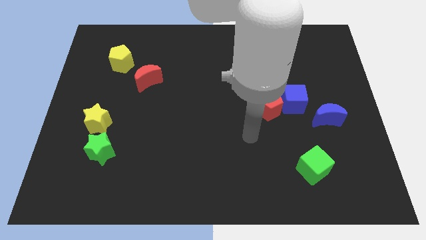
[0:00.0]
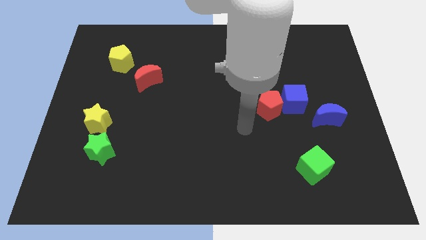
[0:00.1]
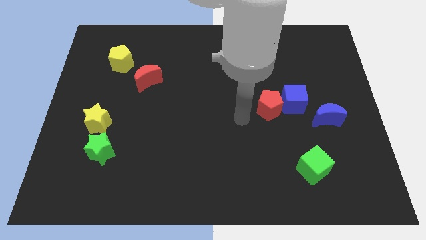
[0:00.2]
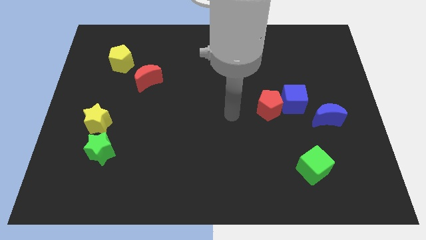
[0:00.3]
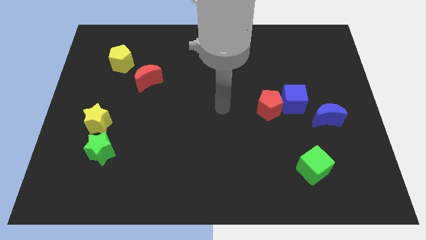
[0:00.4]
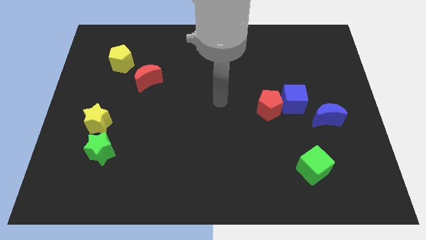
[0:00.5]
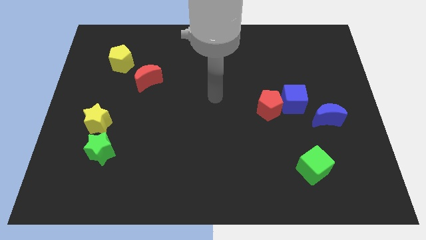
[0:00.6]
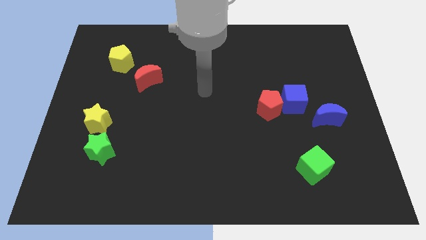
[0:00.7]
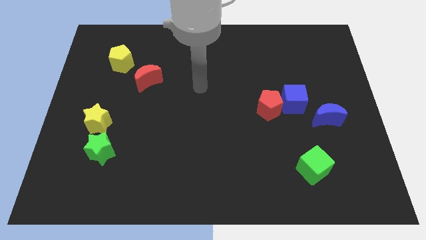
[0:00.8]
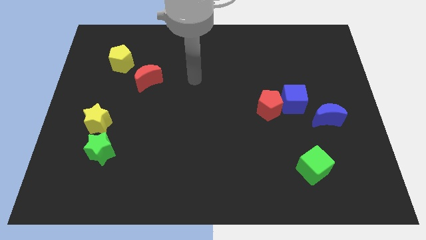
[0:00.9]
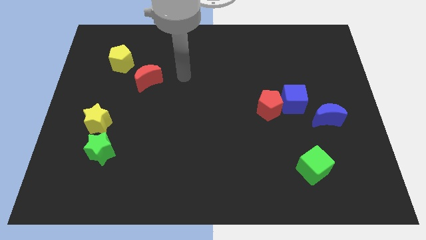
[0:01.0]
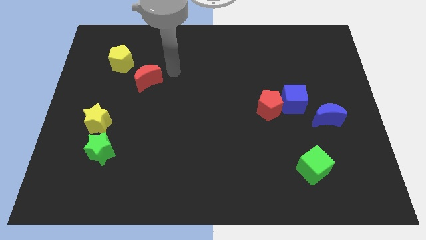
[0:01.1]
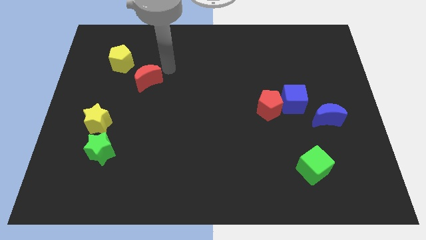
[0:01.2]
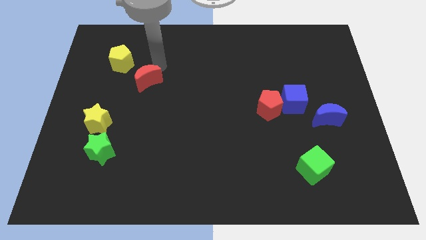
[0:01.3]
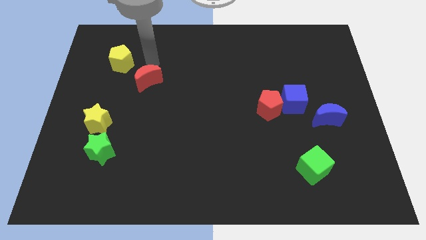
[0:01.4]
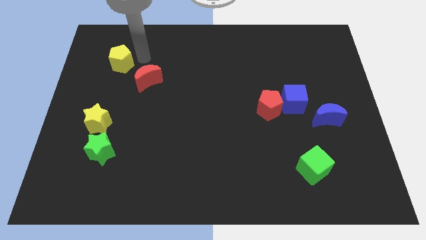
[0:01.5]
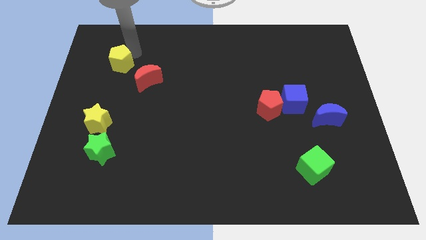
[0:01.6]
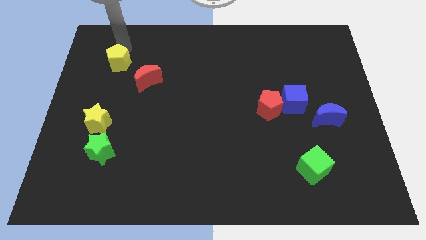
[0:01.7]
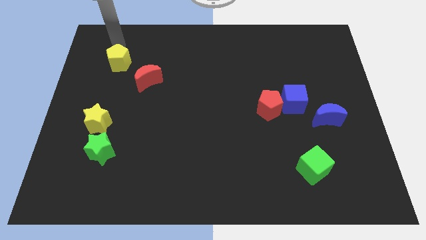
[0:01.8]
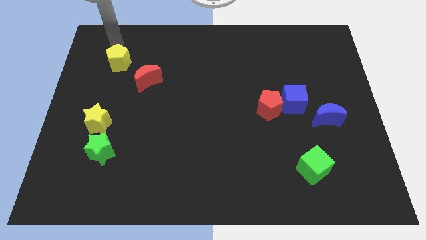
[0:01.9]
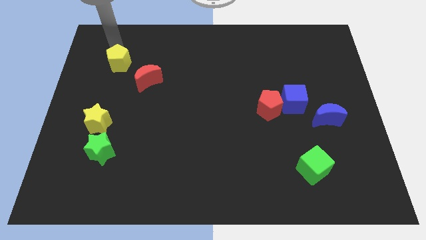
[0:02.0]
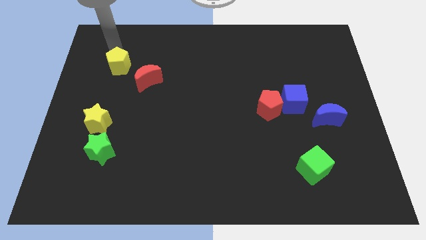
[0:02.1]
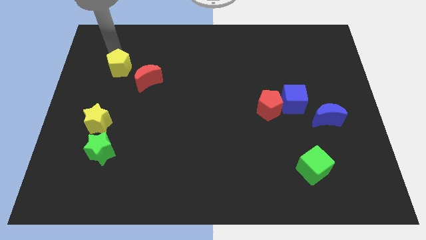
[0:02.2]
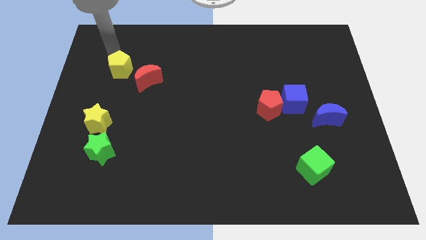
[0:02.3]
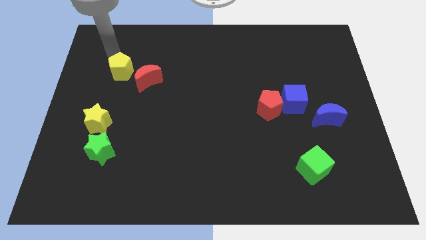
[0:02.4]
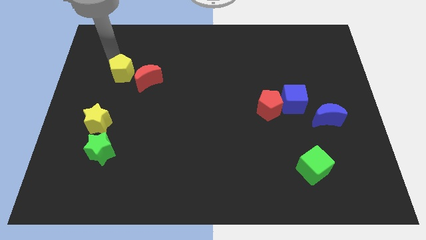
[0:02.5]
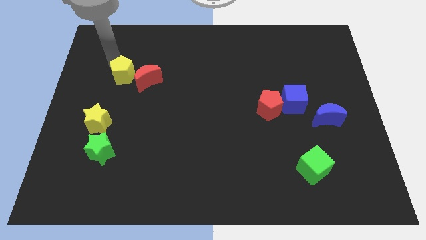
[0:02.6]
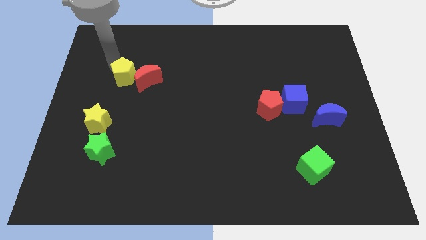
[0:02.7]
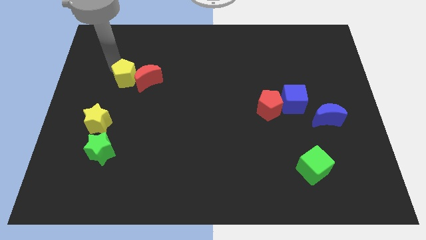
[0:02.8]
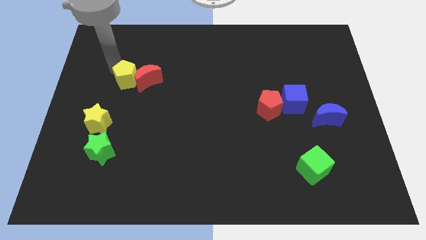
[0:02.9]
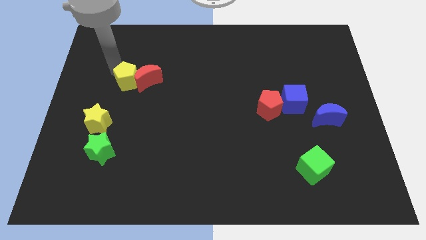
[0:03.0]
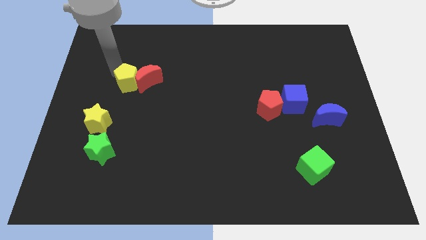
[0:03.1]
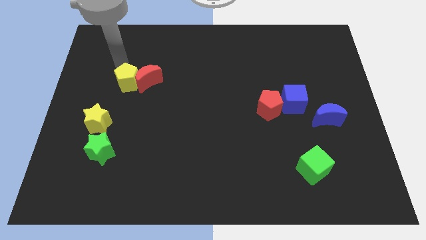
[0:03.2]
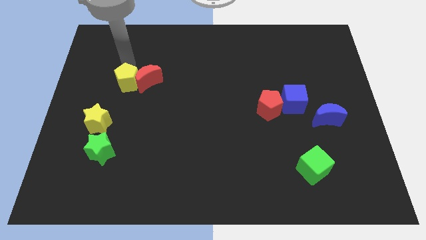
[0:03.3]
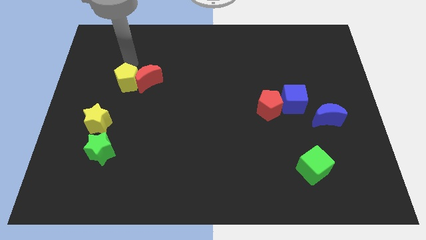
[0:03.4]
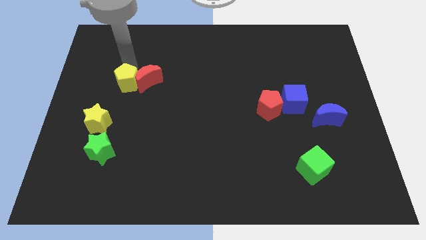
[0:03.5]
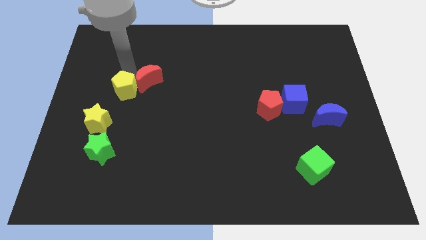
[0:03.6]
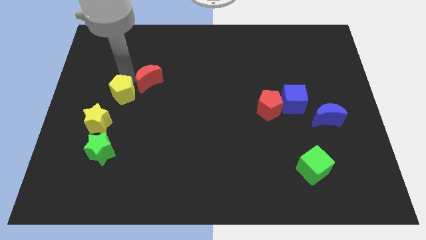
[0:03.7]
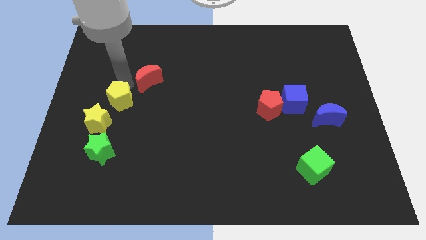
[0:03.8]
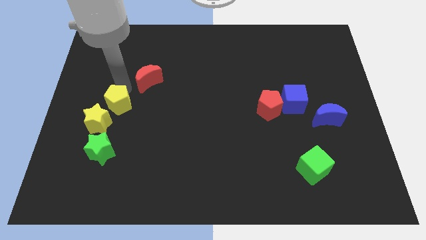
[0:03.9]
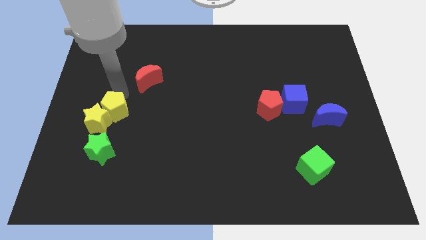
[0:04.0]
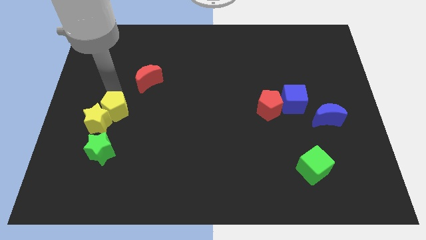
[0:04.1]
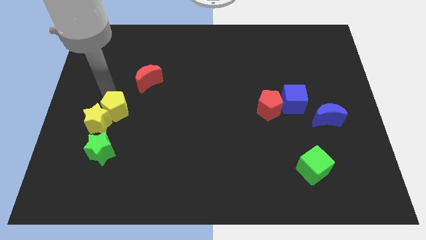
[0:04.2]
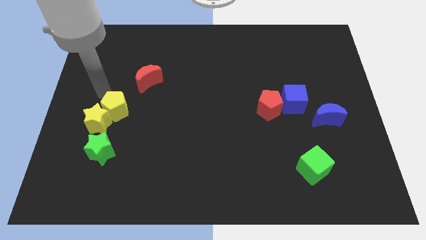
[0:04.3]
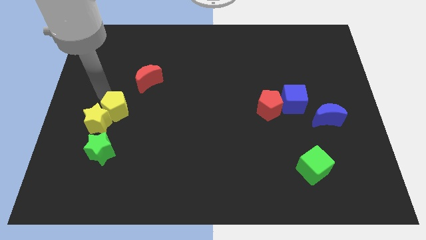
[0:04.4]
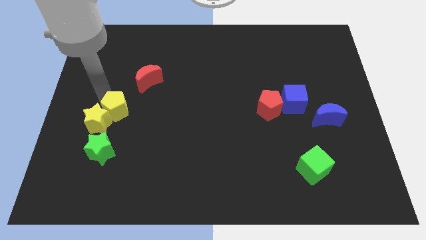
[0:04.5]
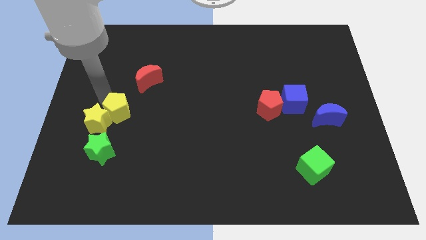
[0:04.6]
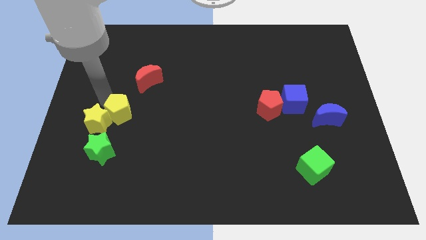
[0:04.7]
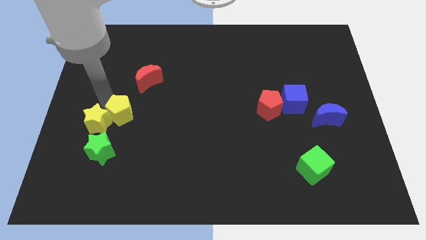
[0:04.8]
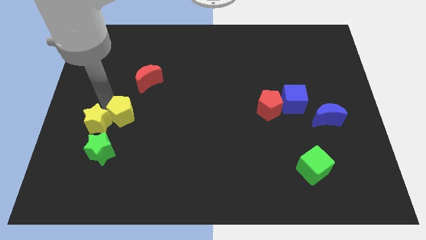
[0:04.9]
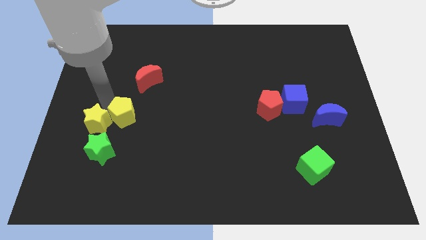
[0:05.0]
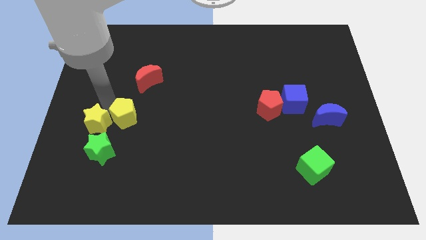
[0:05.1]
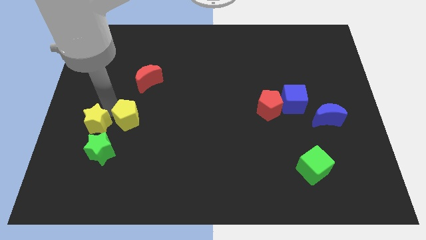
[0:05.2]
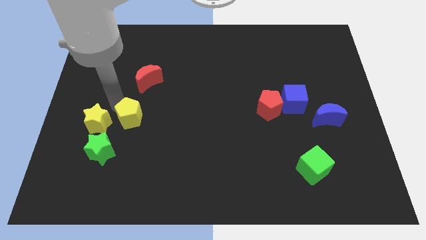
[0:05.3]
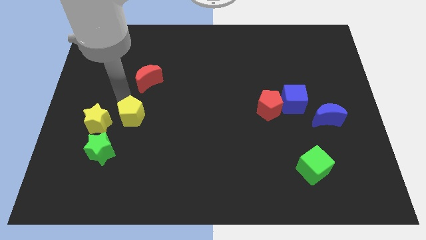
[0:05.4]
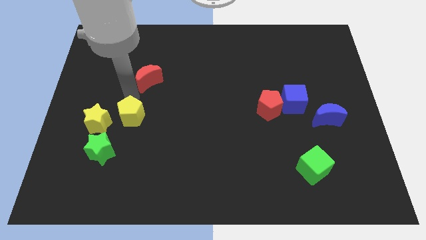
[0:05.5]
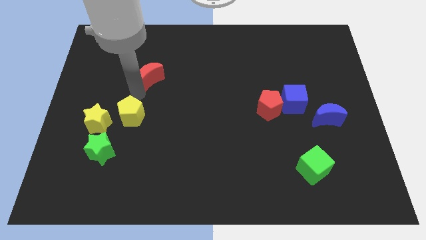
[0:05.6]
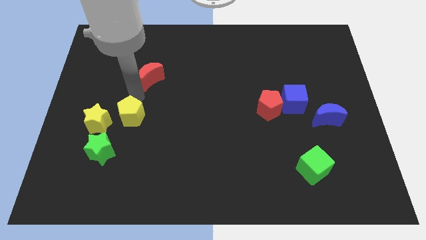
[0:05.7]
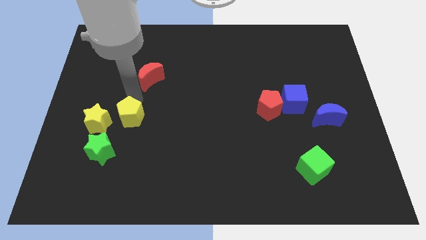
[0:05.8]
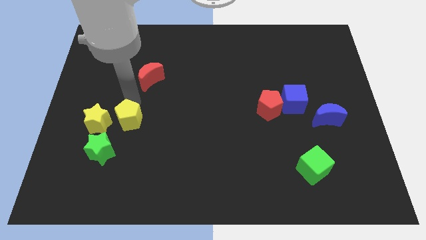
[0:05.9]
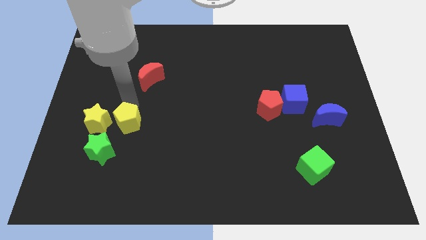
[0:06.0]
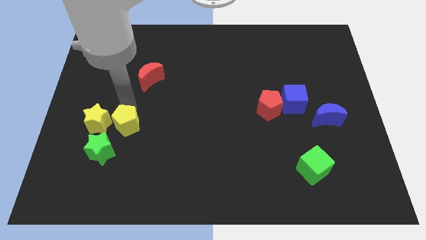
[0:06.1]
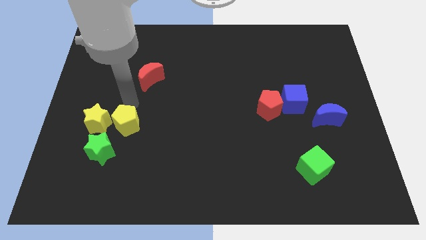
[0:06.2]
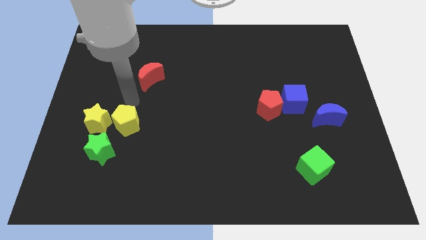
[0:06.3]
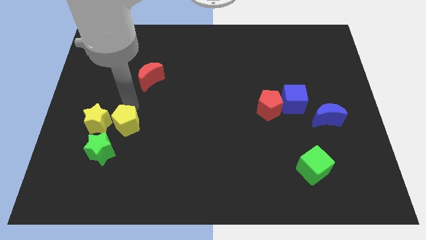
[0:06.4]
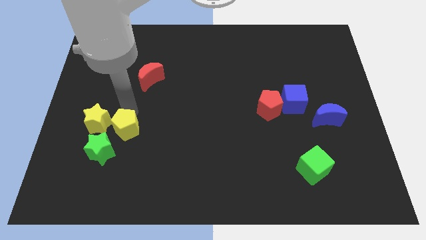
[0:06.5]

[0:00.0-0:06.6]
slide the yellow pentagon downwards
